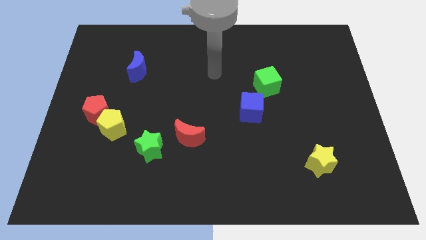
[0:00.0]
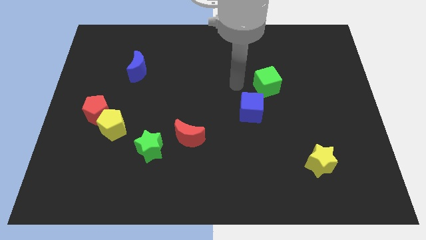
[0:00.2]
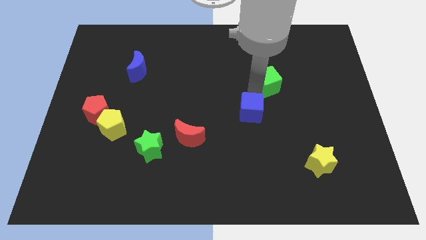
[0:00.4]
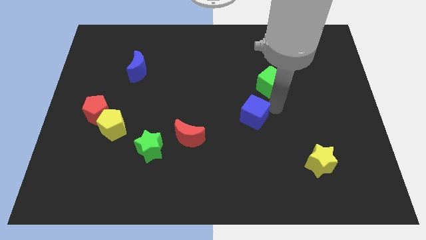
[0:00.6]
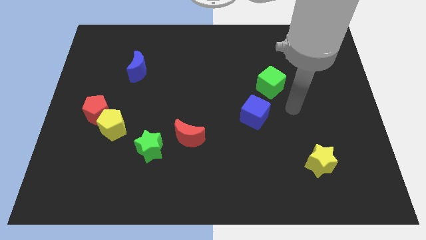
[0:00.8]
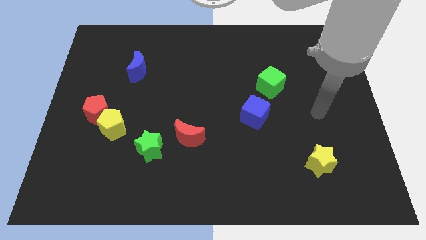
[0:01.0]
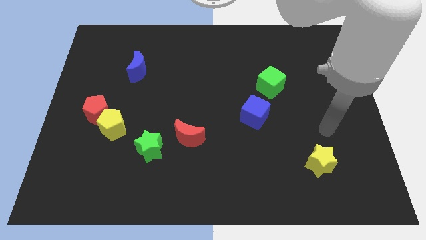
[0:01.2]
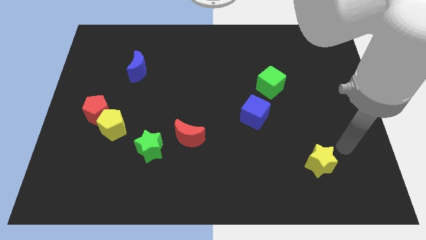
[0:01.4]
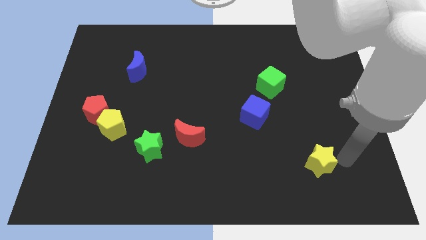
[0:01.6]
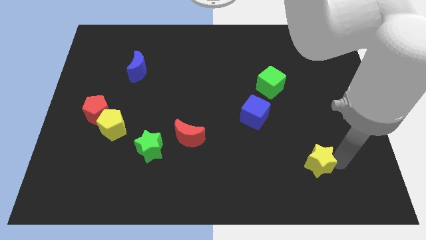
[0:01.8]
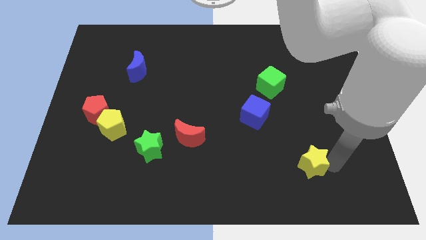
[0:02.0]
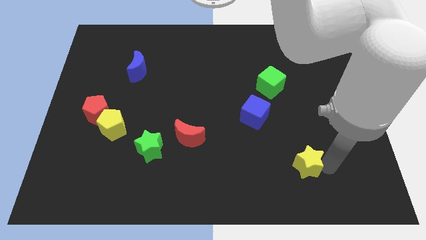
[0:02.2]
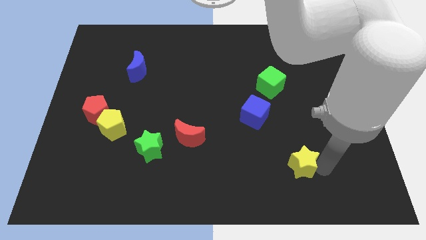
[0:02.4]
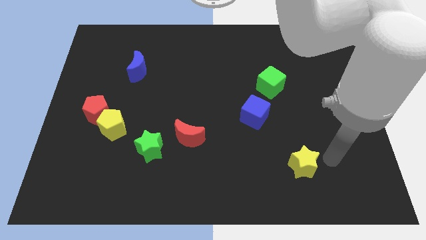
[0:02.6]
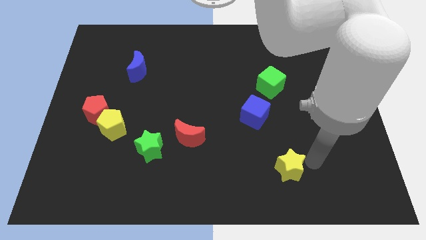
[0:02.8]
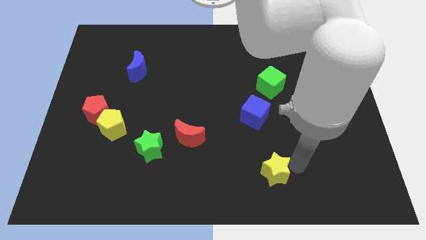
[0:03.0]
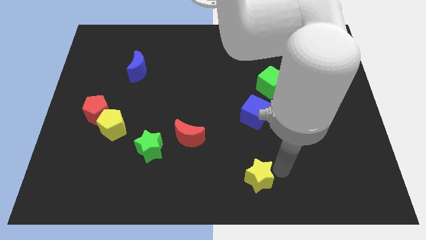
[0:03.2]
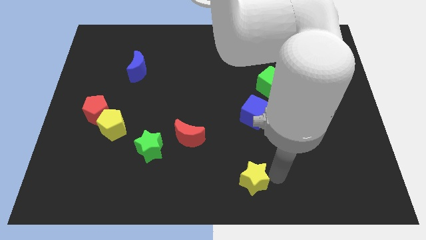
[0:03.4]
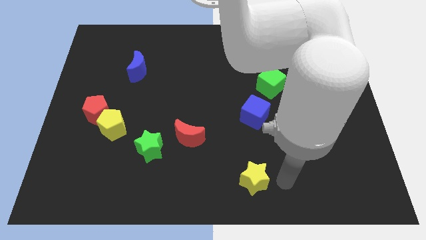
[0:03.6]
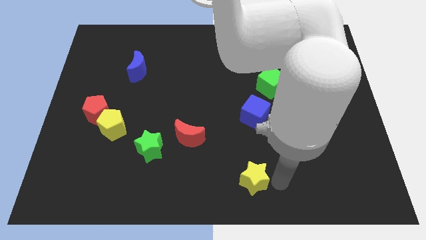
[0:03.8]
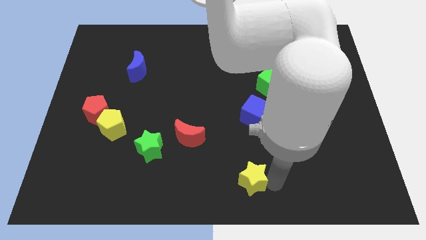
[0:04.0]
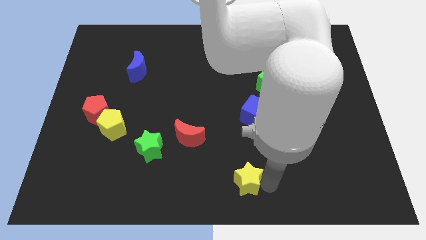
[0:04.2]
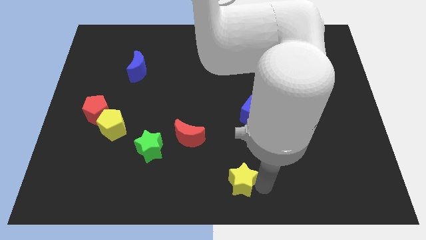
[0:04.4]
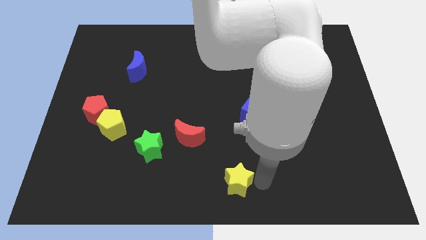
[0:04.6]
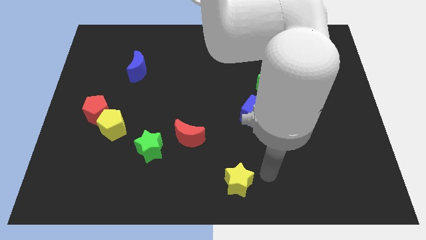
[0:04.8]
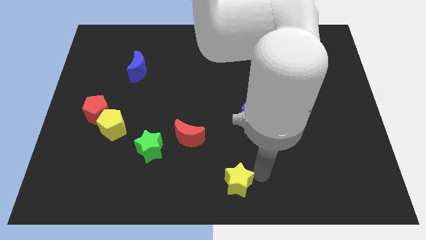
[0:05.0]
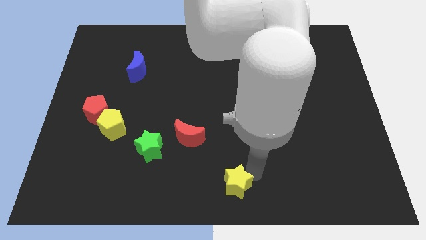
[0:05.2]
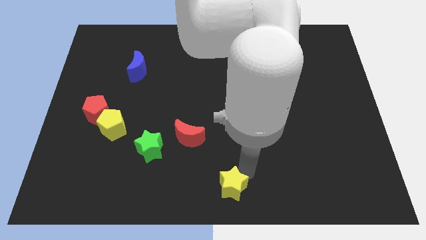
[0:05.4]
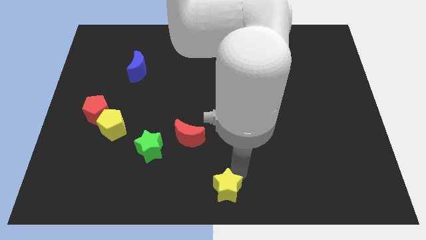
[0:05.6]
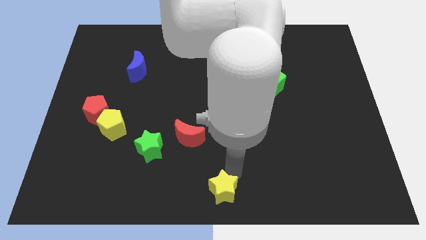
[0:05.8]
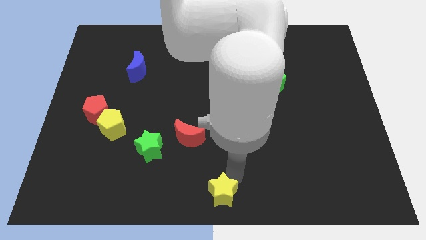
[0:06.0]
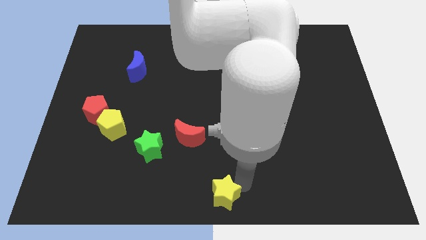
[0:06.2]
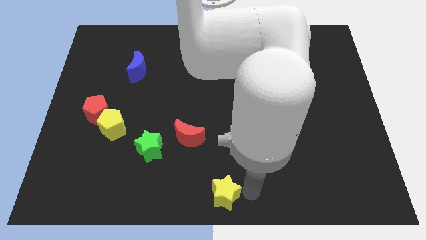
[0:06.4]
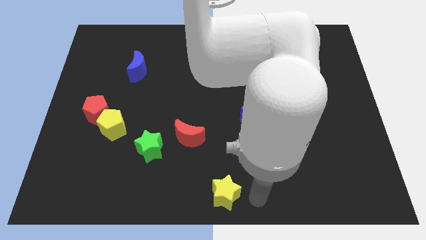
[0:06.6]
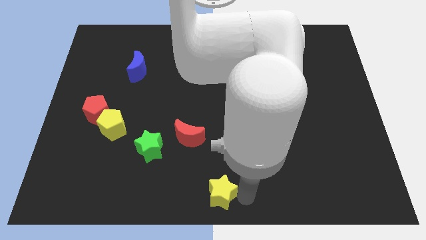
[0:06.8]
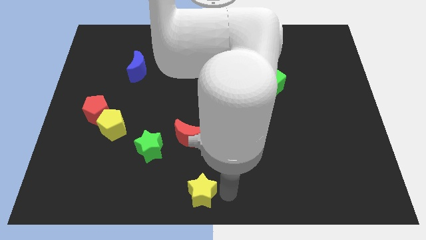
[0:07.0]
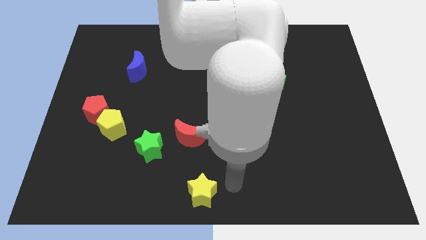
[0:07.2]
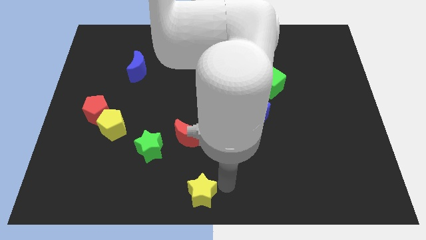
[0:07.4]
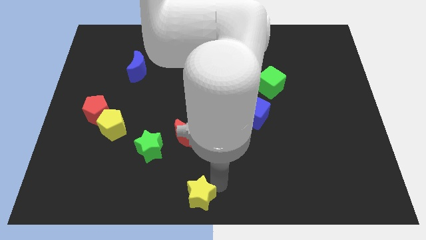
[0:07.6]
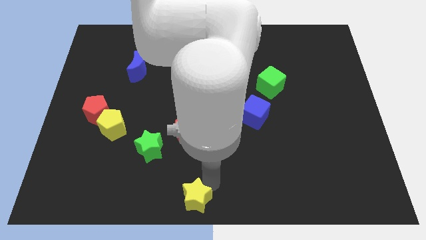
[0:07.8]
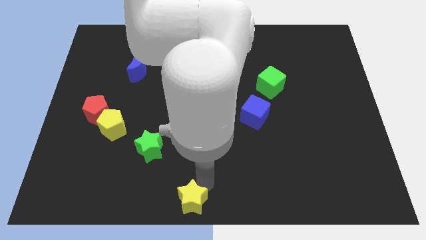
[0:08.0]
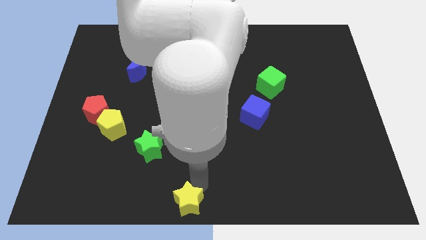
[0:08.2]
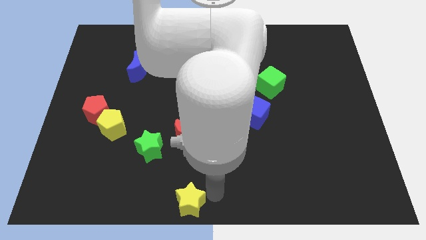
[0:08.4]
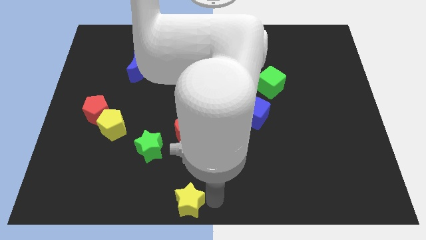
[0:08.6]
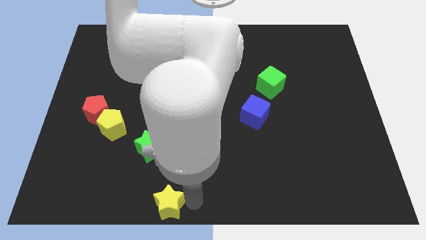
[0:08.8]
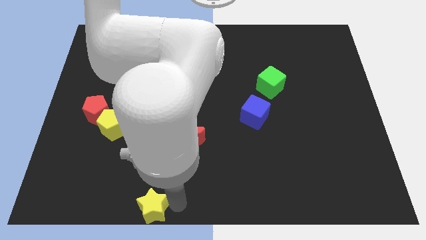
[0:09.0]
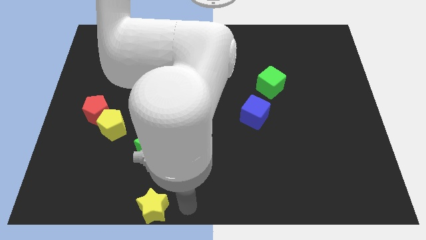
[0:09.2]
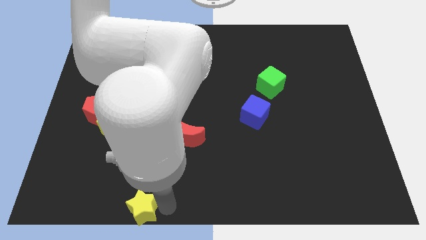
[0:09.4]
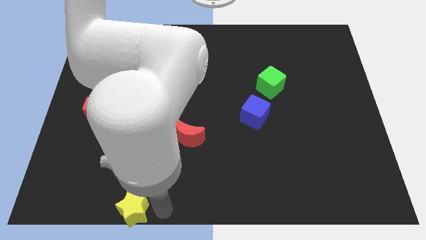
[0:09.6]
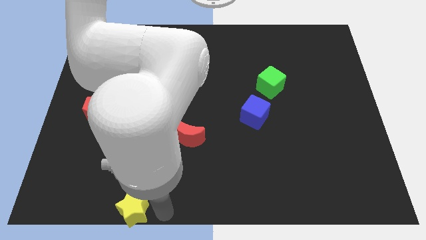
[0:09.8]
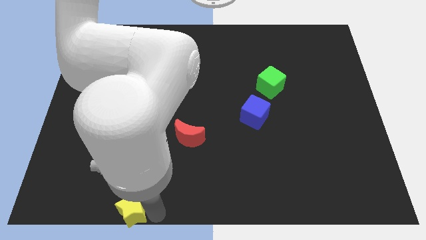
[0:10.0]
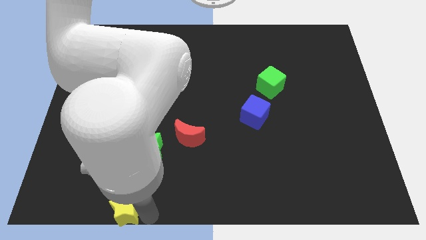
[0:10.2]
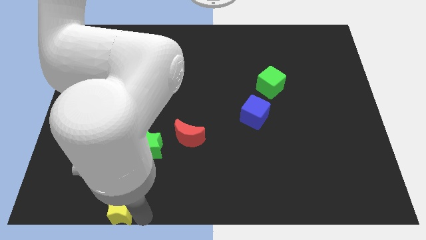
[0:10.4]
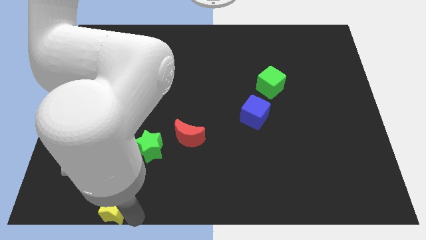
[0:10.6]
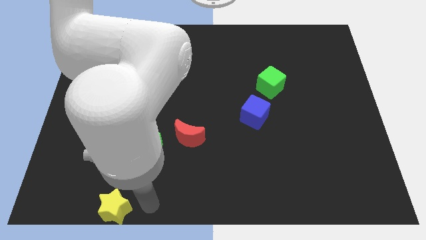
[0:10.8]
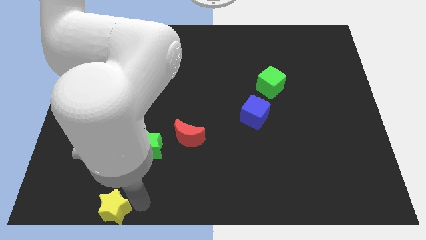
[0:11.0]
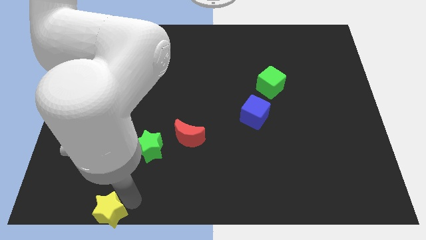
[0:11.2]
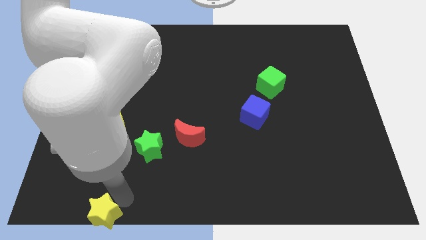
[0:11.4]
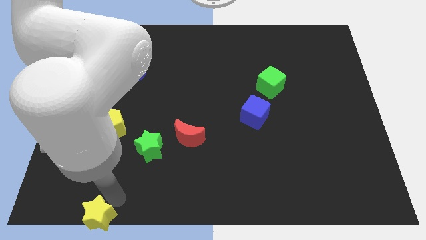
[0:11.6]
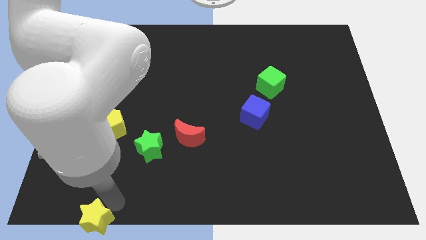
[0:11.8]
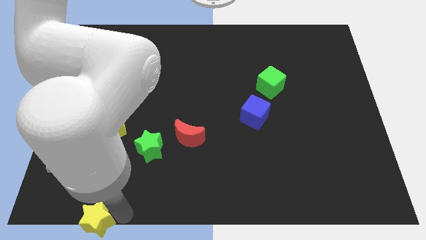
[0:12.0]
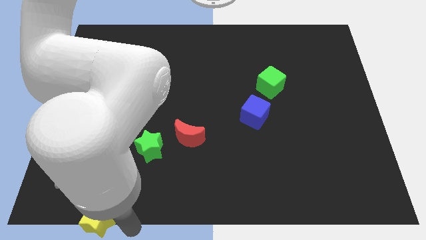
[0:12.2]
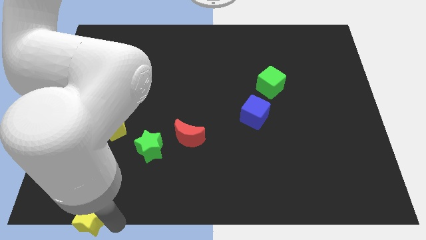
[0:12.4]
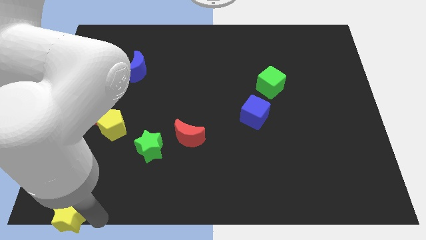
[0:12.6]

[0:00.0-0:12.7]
slide the yellow star to the bottom left corner

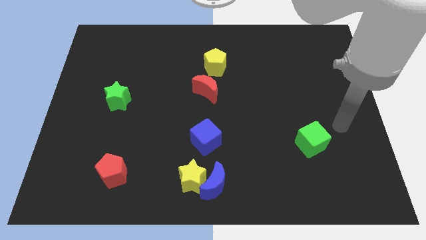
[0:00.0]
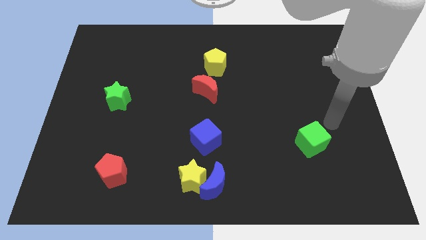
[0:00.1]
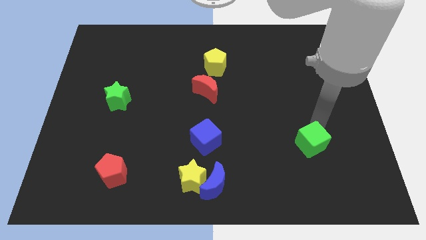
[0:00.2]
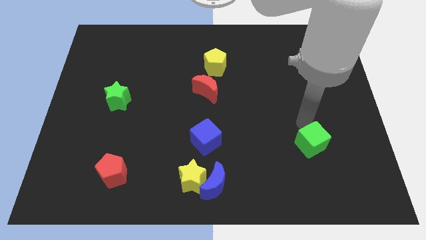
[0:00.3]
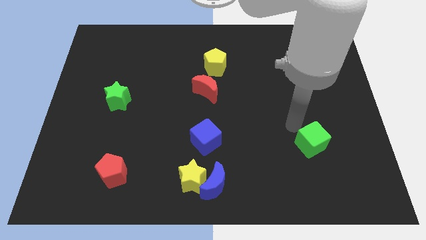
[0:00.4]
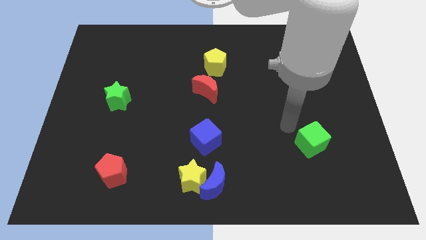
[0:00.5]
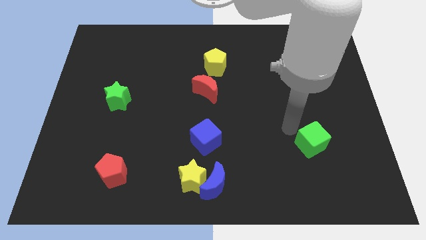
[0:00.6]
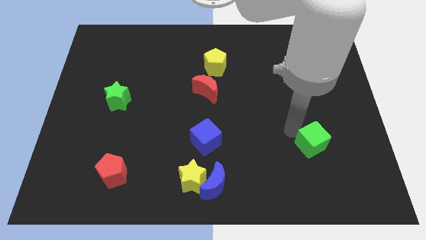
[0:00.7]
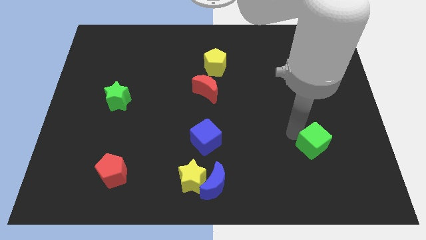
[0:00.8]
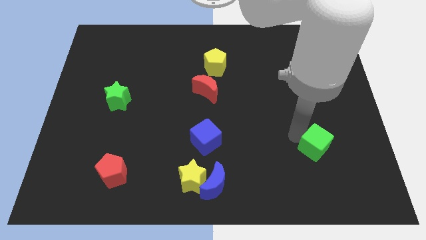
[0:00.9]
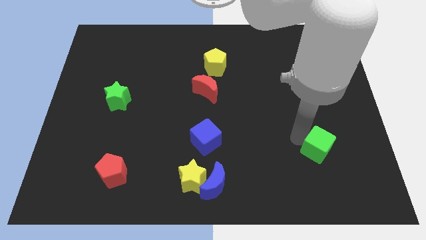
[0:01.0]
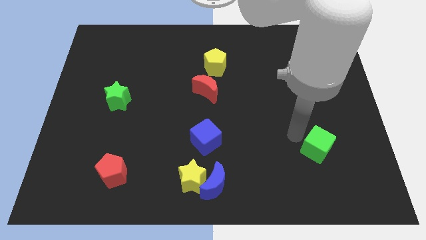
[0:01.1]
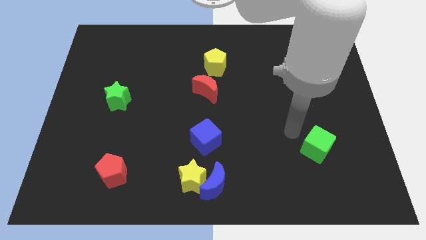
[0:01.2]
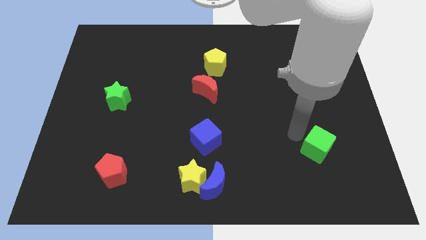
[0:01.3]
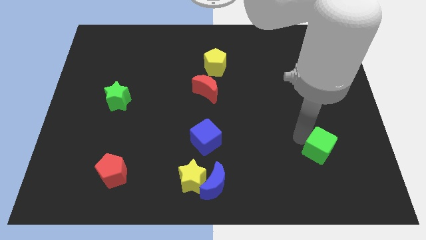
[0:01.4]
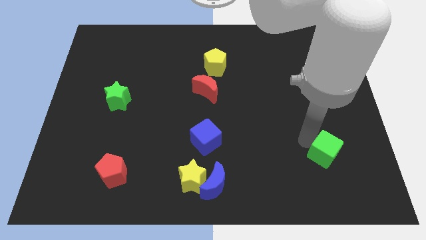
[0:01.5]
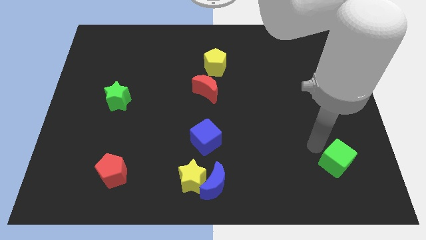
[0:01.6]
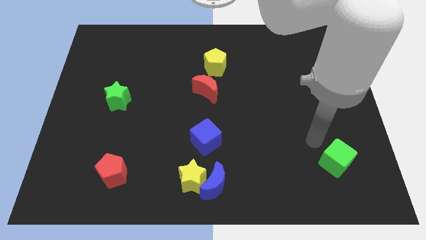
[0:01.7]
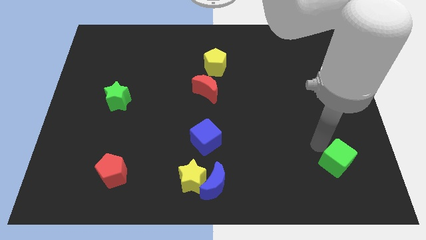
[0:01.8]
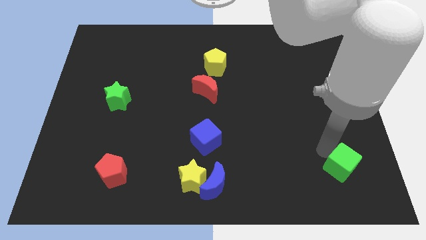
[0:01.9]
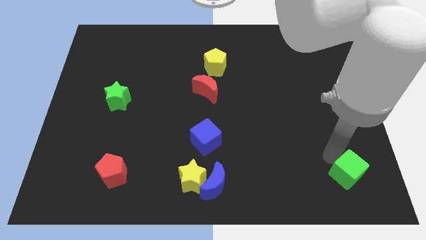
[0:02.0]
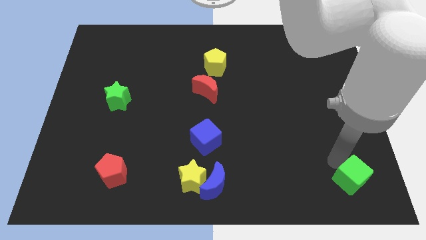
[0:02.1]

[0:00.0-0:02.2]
slide the green cube to the bottom right corner
